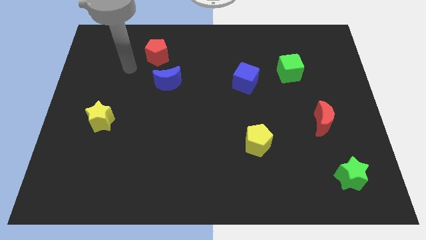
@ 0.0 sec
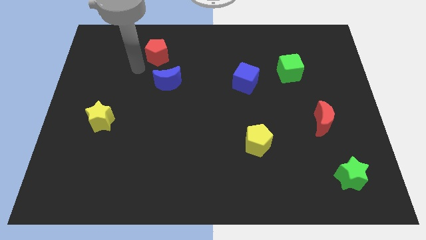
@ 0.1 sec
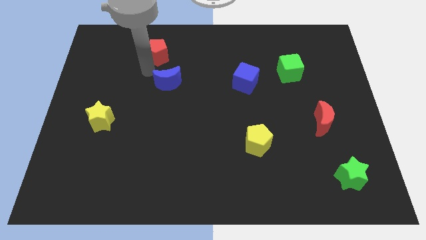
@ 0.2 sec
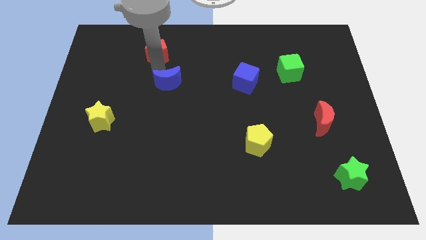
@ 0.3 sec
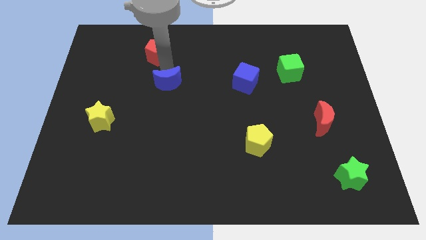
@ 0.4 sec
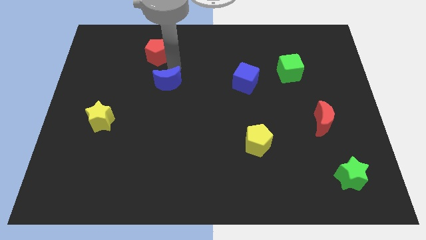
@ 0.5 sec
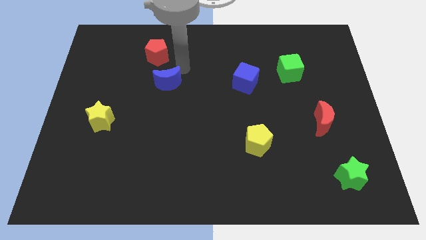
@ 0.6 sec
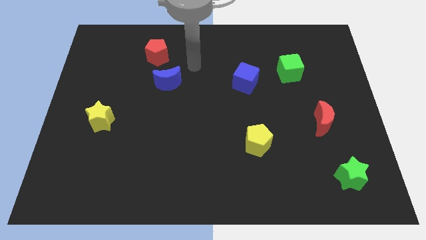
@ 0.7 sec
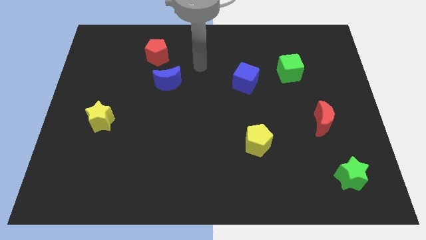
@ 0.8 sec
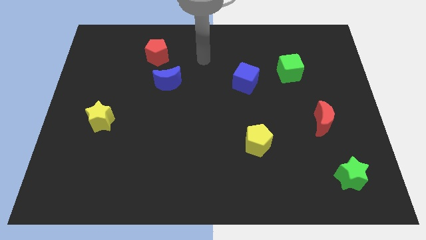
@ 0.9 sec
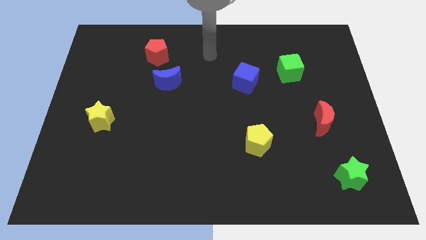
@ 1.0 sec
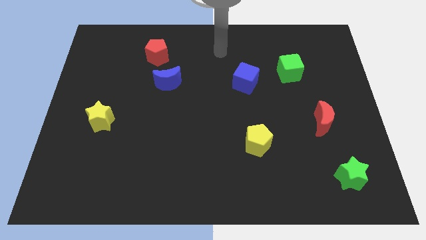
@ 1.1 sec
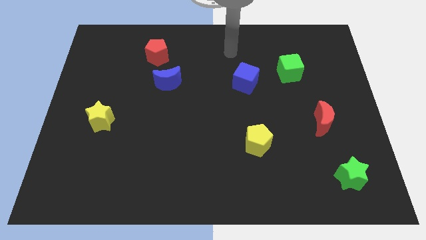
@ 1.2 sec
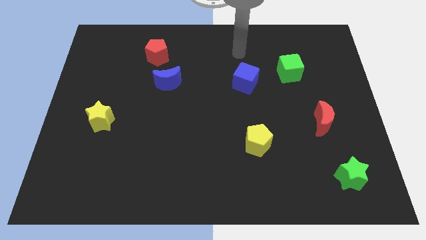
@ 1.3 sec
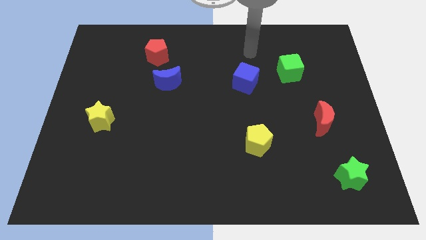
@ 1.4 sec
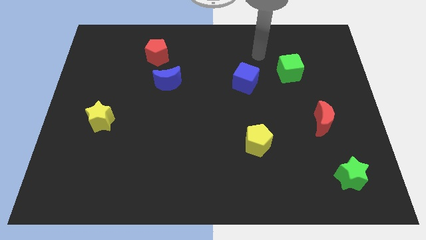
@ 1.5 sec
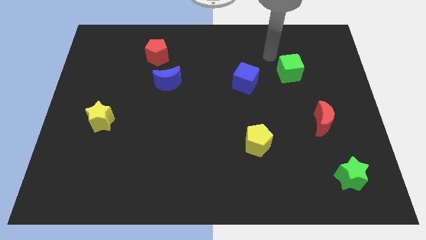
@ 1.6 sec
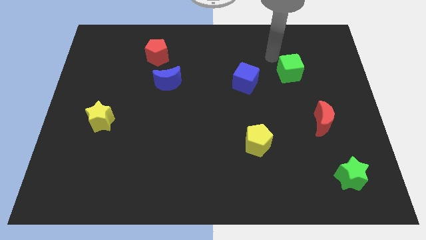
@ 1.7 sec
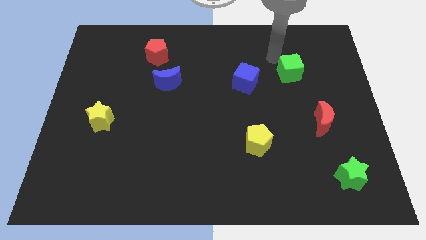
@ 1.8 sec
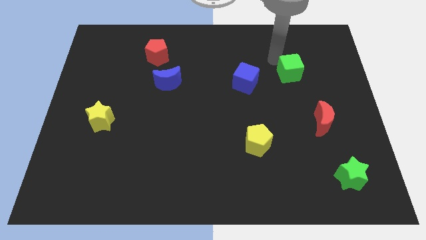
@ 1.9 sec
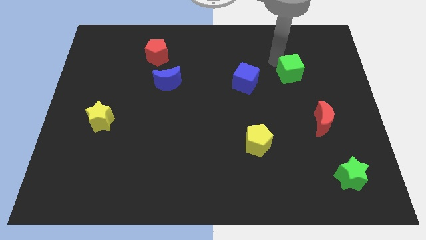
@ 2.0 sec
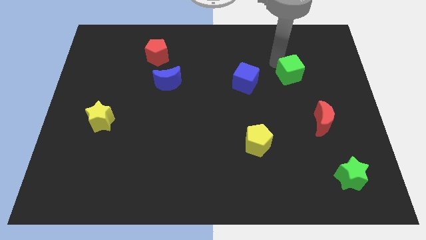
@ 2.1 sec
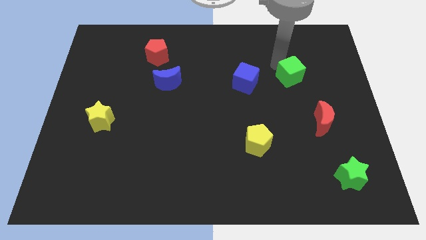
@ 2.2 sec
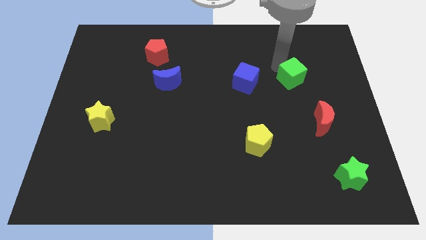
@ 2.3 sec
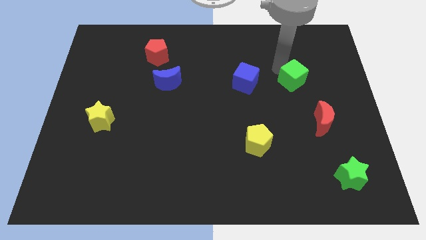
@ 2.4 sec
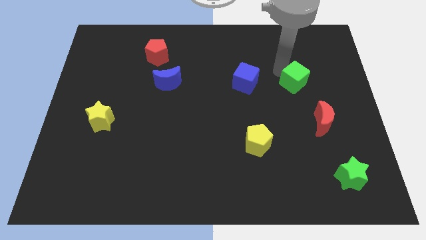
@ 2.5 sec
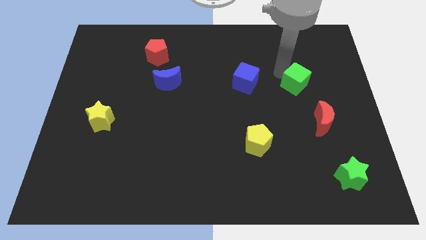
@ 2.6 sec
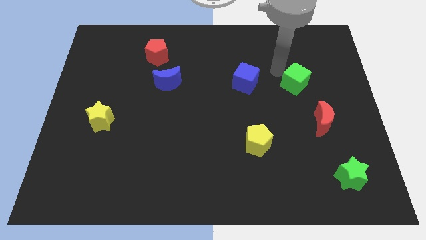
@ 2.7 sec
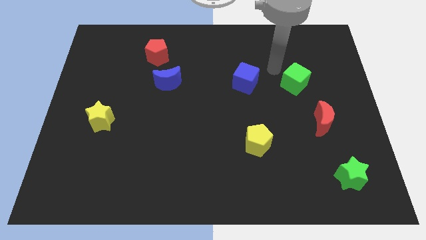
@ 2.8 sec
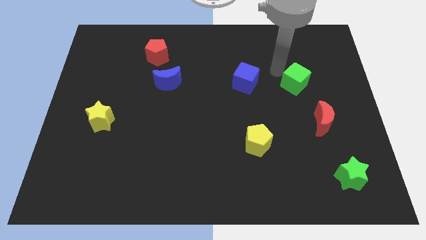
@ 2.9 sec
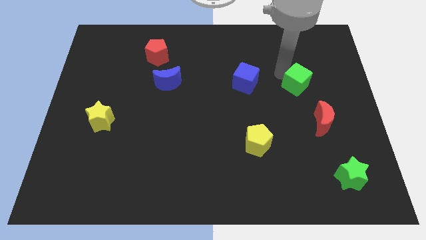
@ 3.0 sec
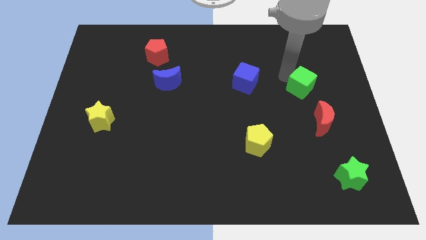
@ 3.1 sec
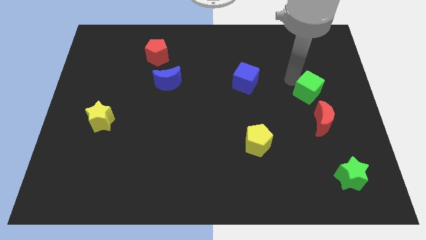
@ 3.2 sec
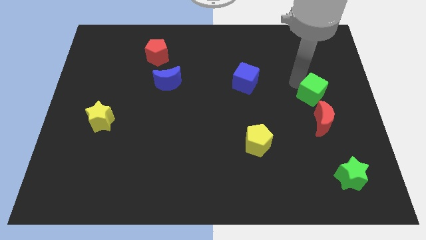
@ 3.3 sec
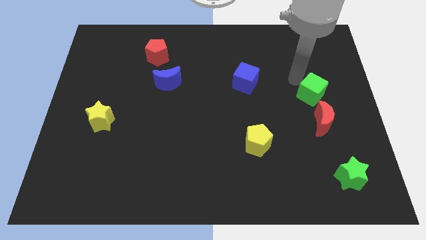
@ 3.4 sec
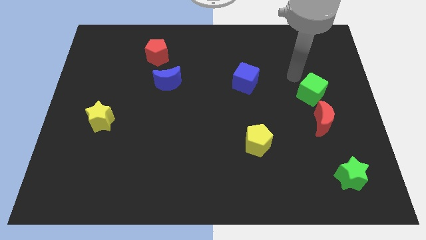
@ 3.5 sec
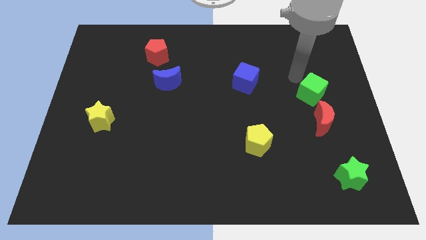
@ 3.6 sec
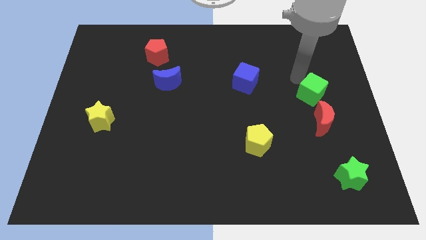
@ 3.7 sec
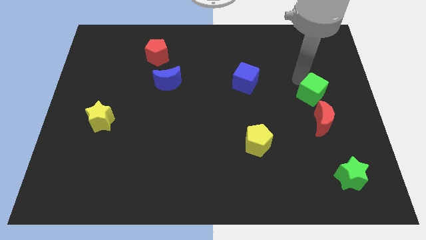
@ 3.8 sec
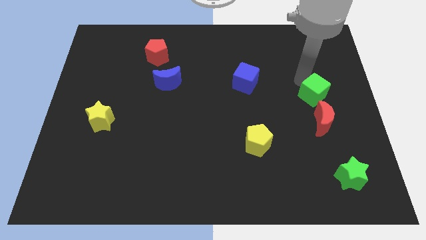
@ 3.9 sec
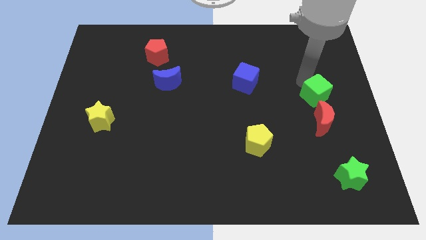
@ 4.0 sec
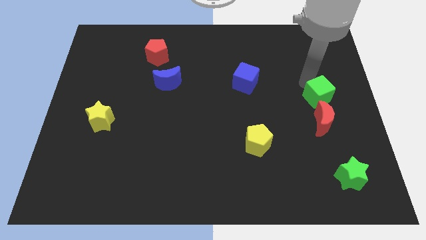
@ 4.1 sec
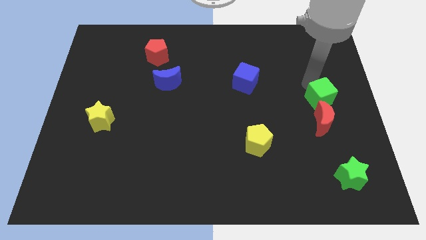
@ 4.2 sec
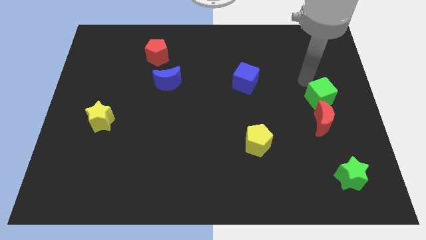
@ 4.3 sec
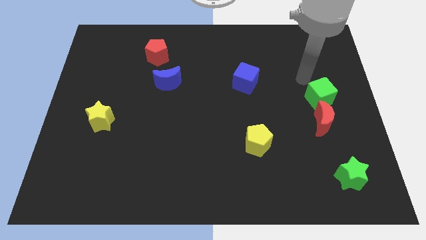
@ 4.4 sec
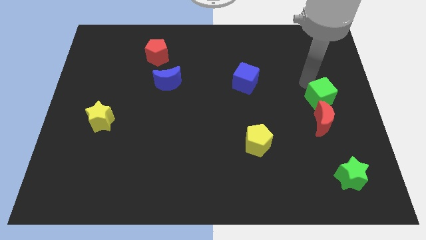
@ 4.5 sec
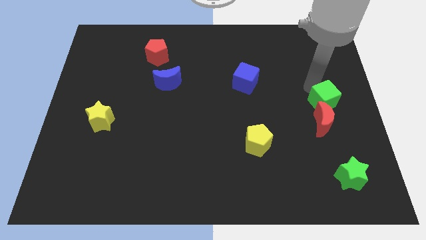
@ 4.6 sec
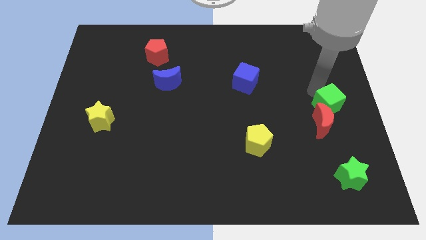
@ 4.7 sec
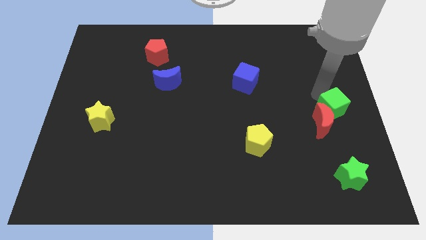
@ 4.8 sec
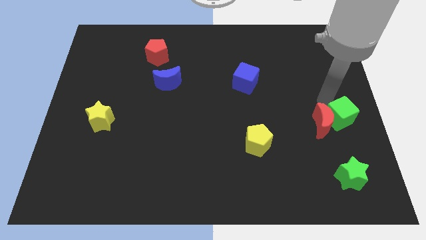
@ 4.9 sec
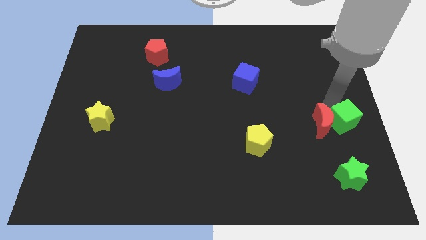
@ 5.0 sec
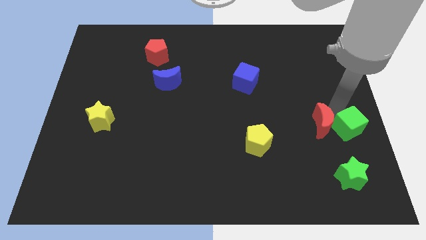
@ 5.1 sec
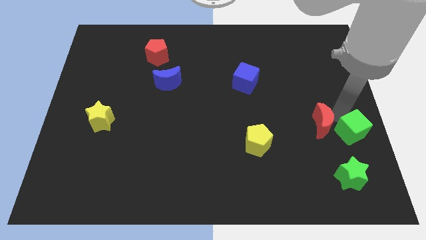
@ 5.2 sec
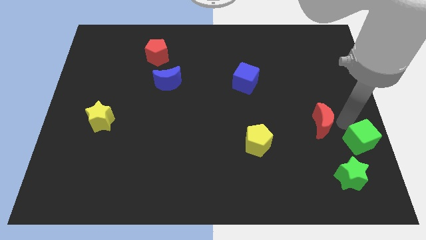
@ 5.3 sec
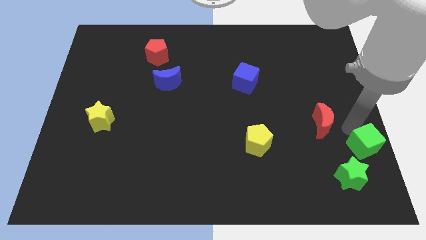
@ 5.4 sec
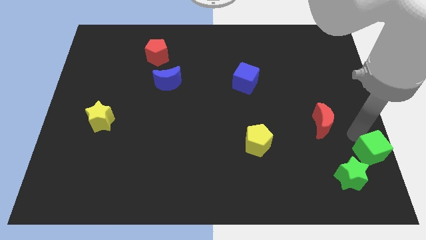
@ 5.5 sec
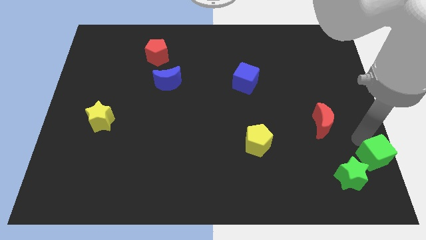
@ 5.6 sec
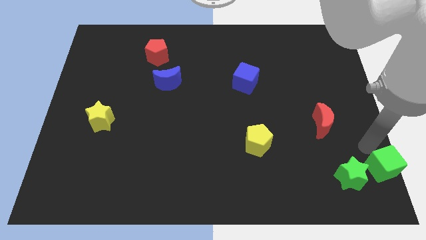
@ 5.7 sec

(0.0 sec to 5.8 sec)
push the green cube to the lower right corner

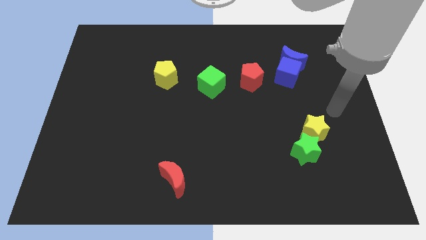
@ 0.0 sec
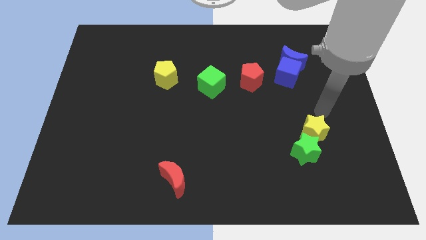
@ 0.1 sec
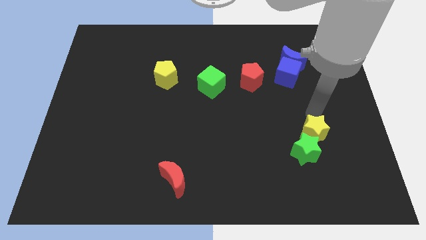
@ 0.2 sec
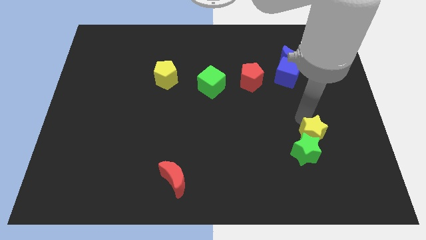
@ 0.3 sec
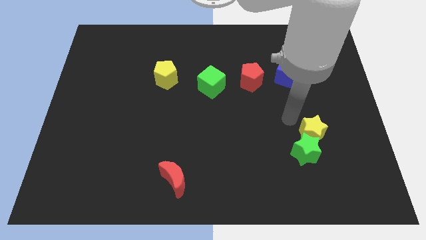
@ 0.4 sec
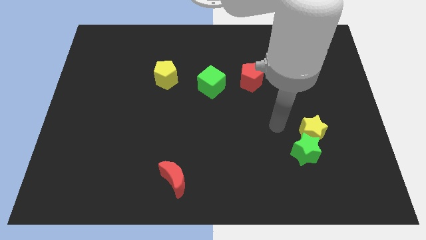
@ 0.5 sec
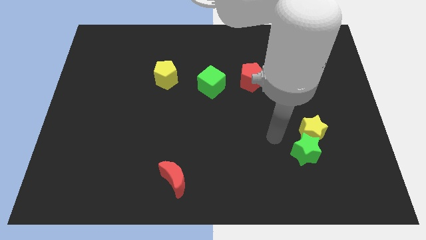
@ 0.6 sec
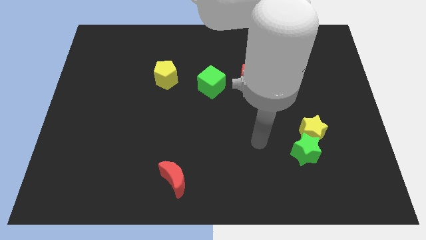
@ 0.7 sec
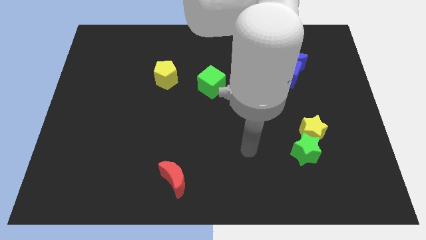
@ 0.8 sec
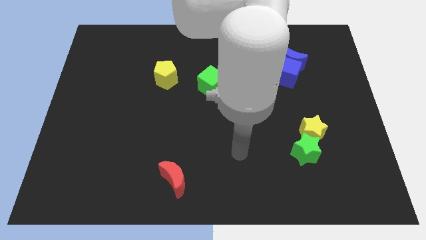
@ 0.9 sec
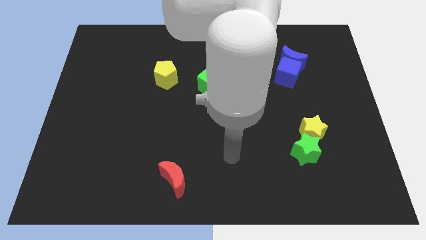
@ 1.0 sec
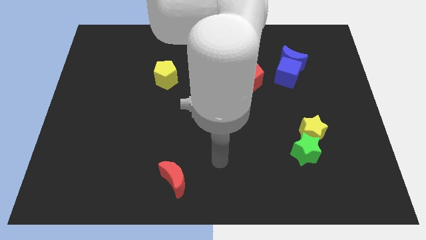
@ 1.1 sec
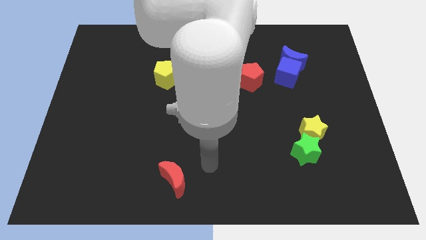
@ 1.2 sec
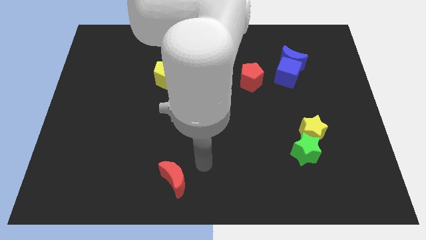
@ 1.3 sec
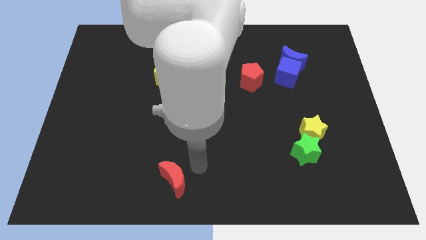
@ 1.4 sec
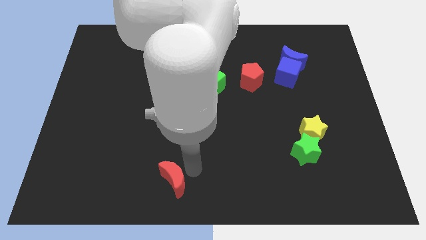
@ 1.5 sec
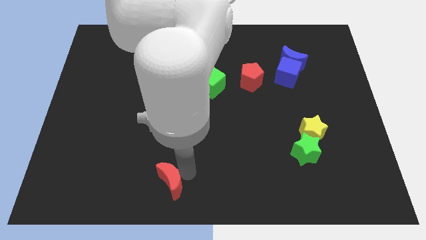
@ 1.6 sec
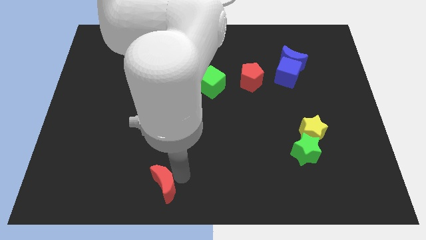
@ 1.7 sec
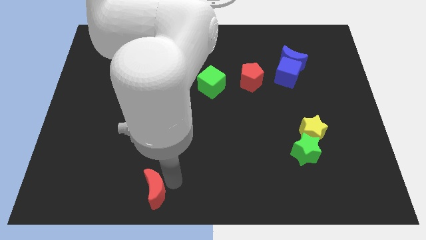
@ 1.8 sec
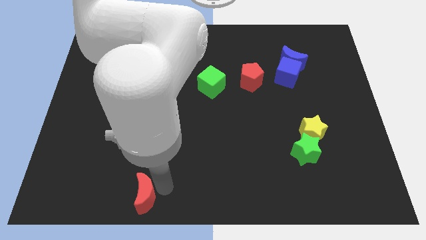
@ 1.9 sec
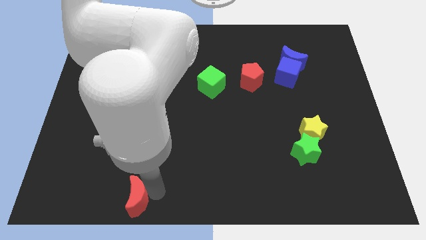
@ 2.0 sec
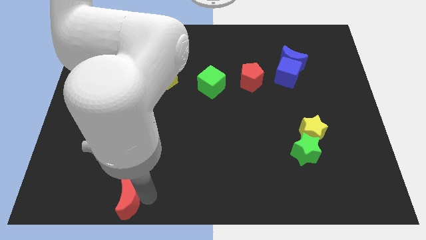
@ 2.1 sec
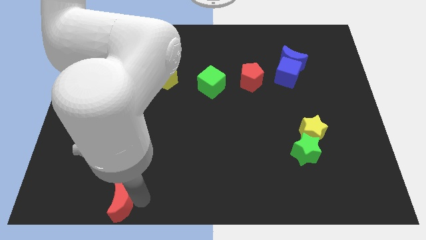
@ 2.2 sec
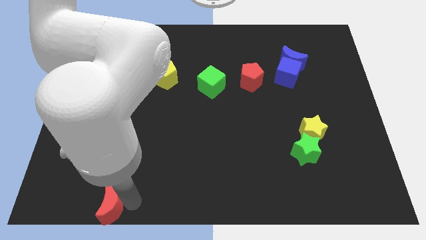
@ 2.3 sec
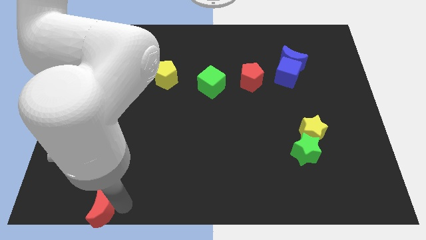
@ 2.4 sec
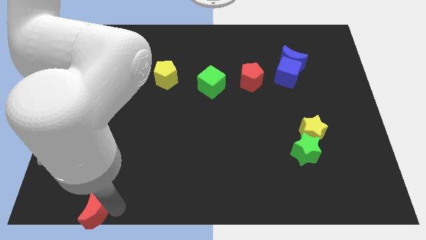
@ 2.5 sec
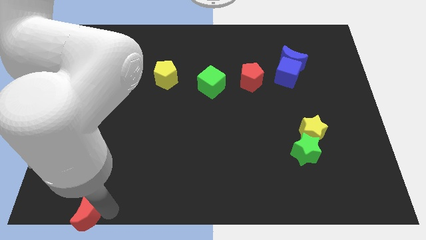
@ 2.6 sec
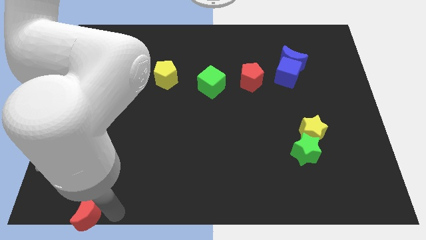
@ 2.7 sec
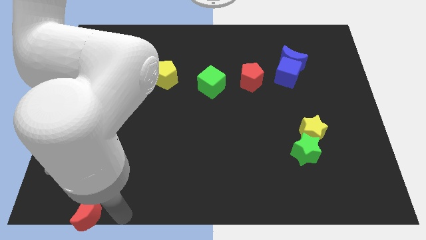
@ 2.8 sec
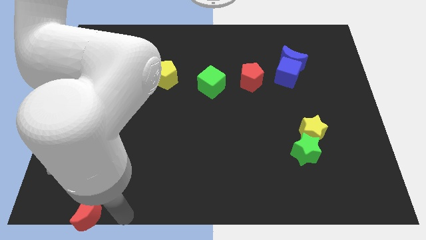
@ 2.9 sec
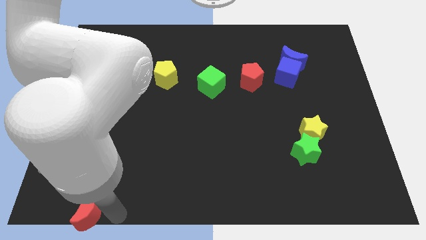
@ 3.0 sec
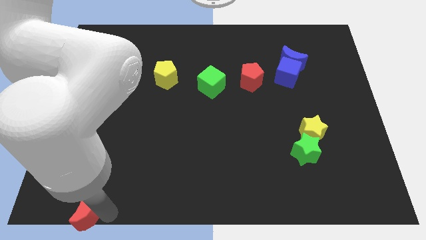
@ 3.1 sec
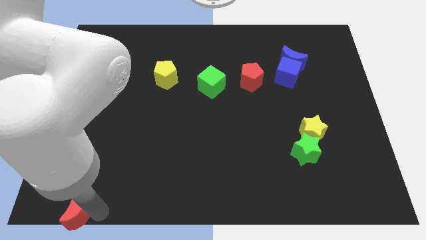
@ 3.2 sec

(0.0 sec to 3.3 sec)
push the red moon to the bottom left
